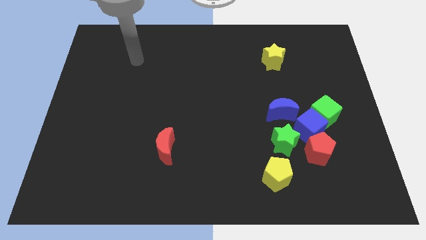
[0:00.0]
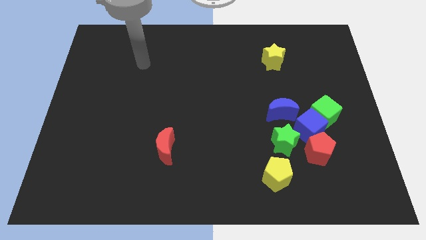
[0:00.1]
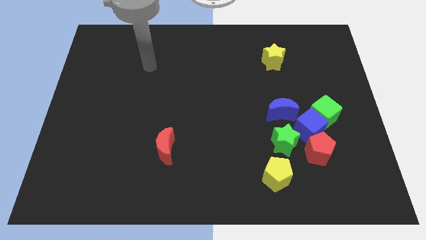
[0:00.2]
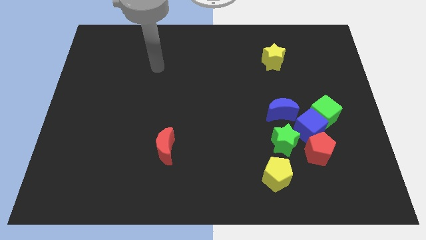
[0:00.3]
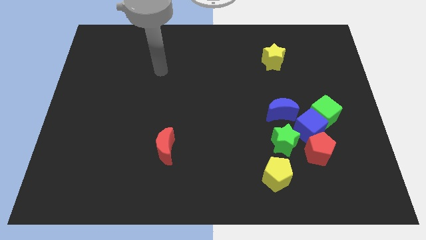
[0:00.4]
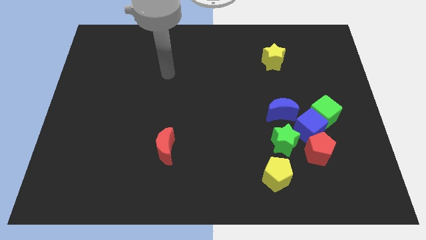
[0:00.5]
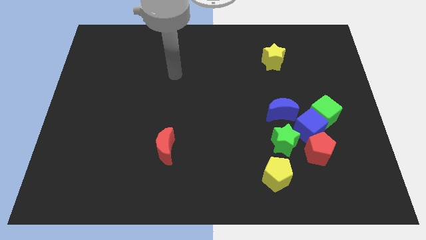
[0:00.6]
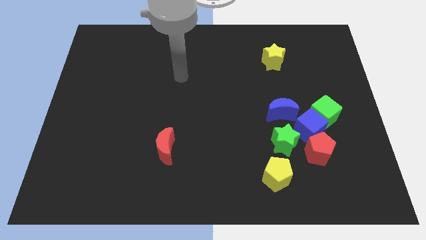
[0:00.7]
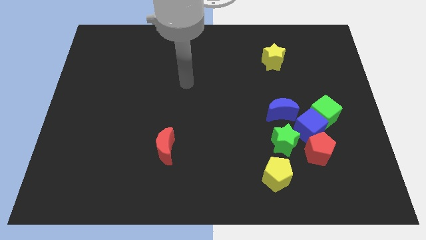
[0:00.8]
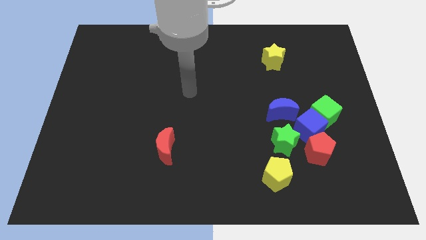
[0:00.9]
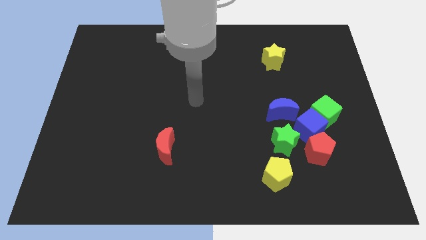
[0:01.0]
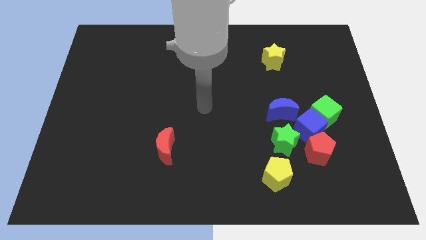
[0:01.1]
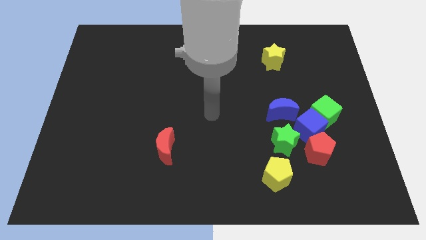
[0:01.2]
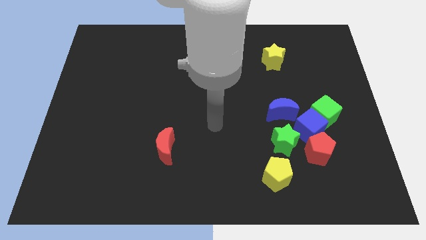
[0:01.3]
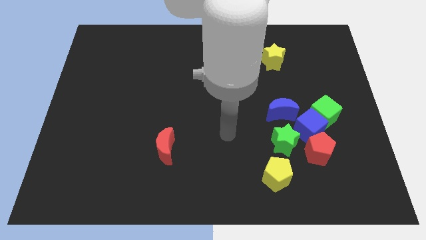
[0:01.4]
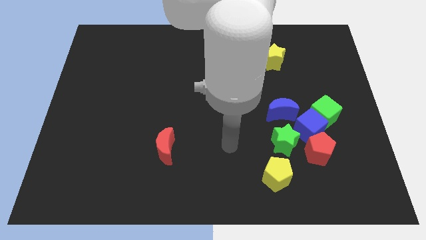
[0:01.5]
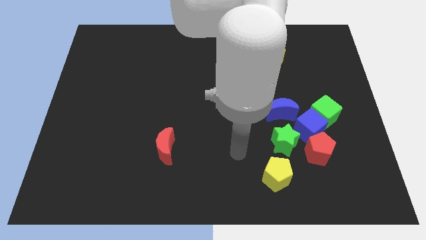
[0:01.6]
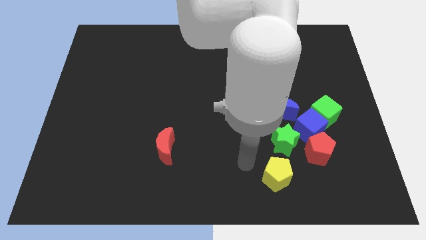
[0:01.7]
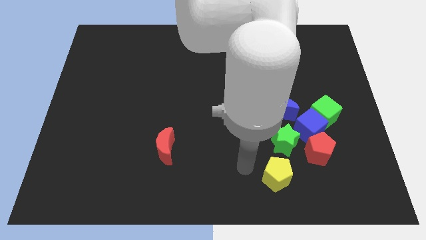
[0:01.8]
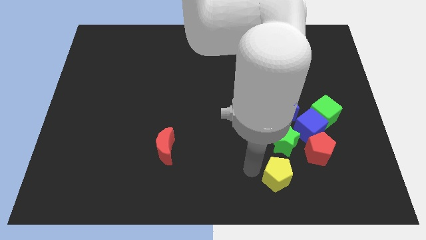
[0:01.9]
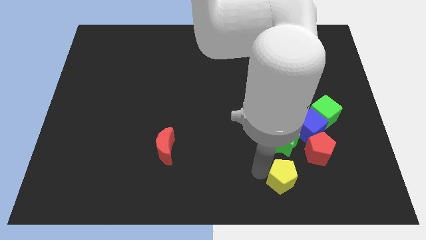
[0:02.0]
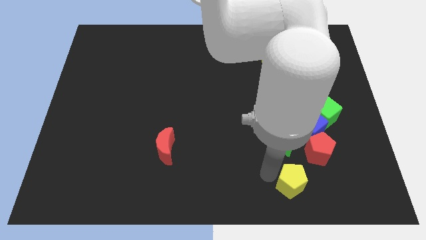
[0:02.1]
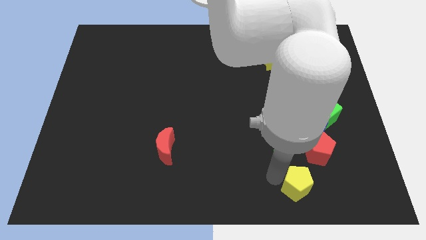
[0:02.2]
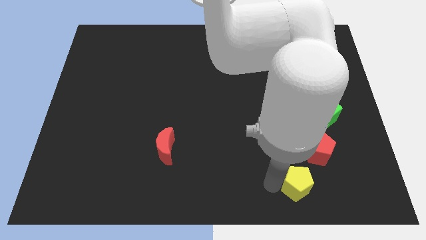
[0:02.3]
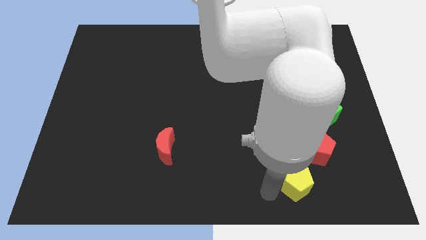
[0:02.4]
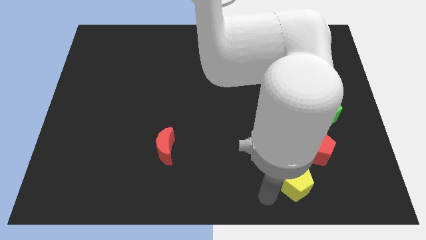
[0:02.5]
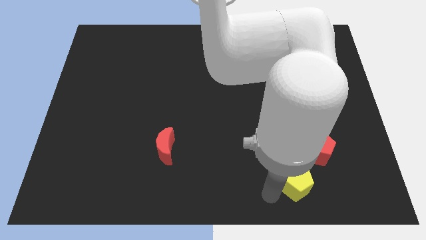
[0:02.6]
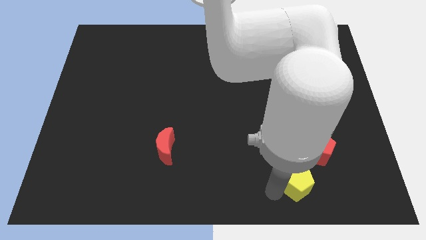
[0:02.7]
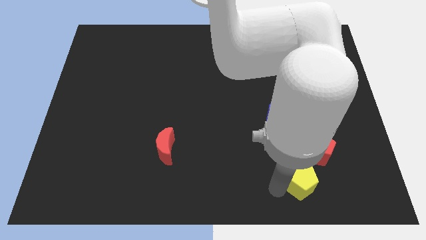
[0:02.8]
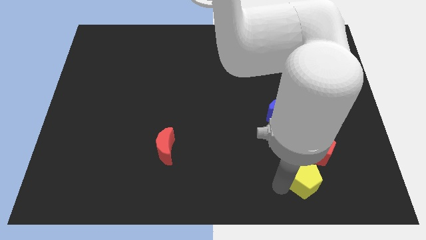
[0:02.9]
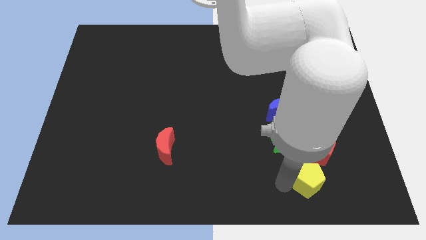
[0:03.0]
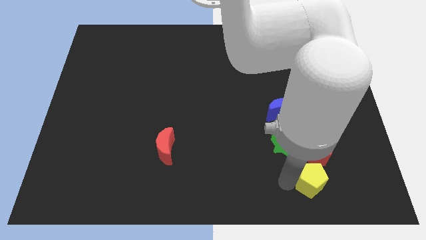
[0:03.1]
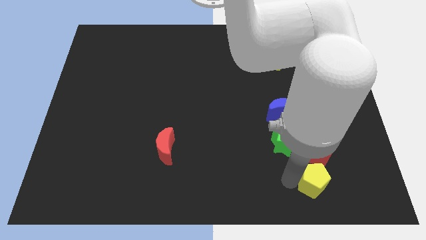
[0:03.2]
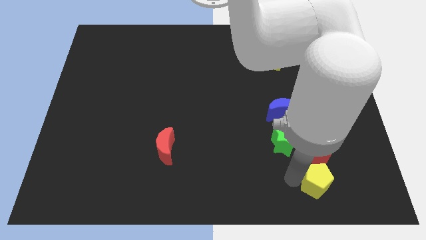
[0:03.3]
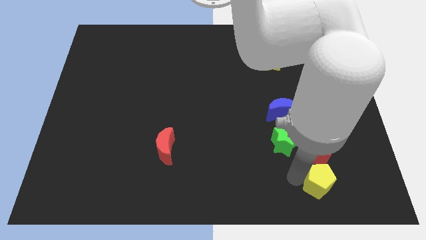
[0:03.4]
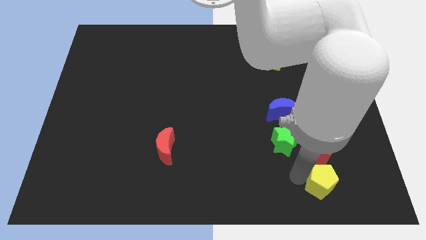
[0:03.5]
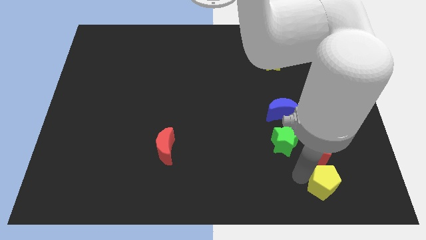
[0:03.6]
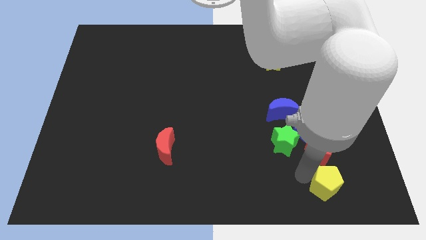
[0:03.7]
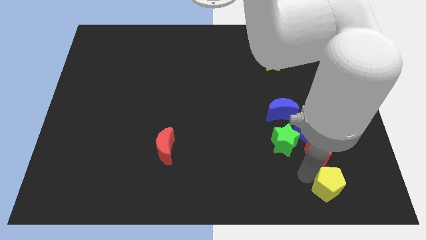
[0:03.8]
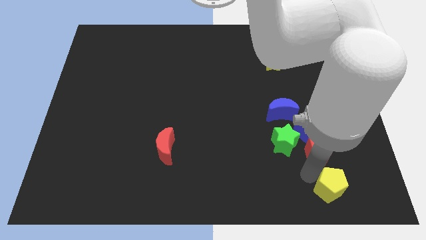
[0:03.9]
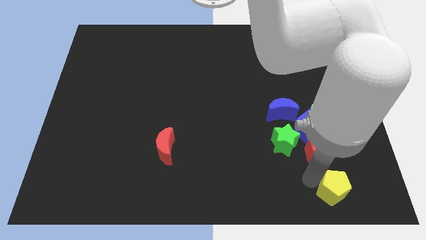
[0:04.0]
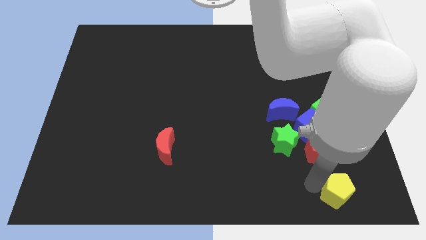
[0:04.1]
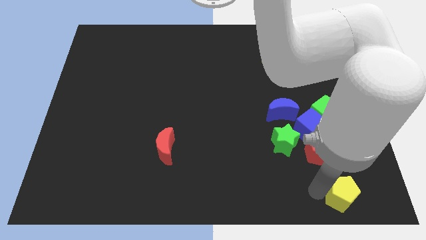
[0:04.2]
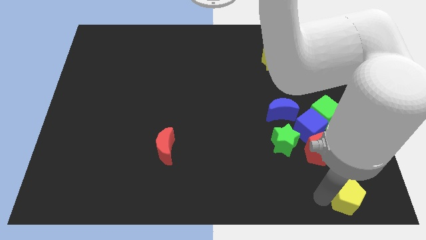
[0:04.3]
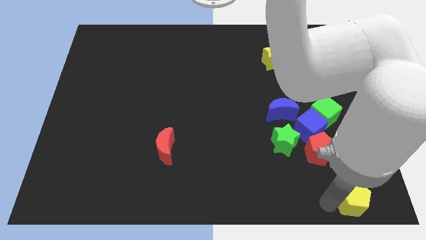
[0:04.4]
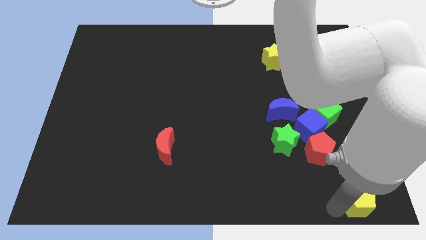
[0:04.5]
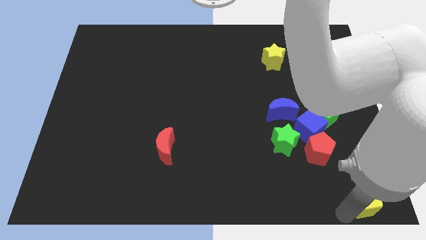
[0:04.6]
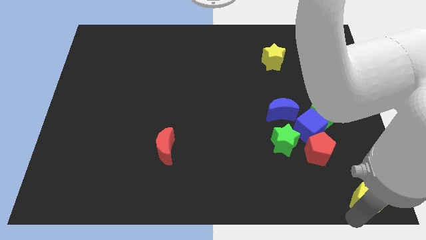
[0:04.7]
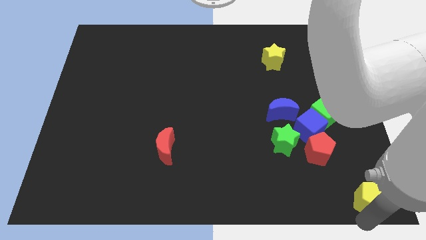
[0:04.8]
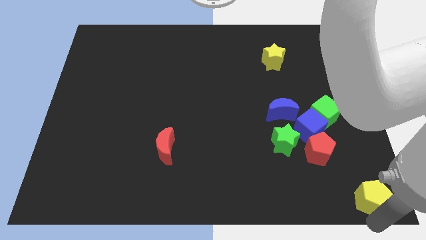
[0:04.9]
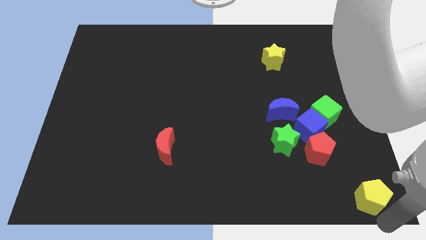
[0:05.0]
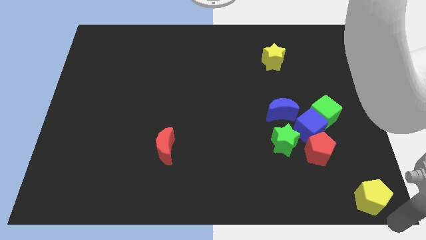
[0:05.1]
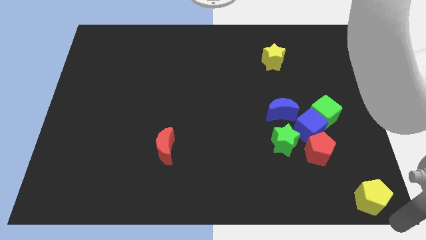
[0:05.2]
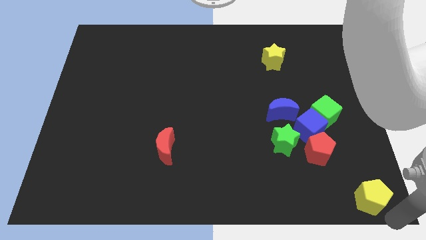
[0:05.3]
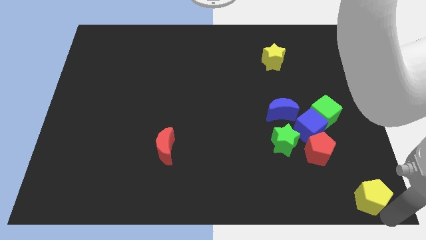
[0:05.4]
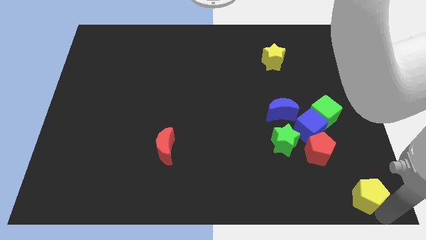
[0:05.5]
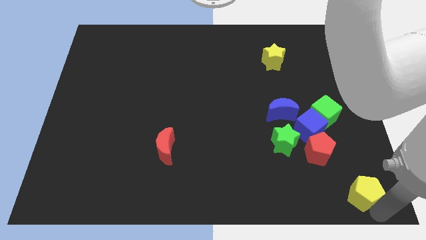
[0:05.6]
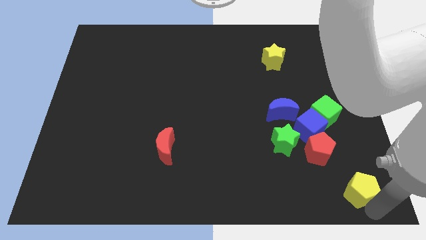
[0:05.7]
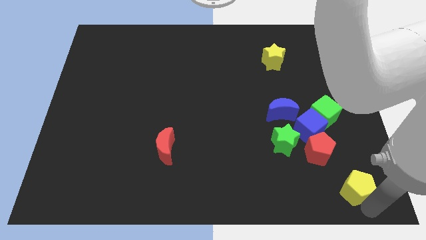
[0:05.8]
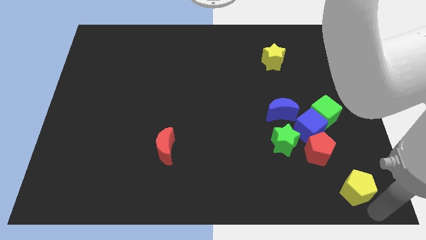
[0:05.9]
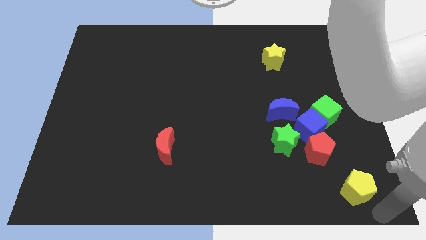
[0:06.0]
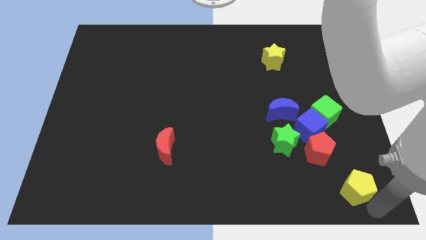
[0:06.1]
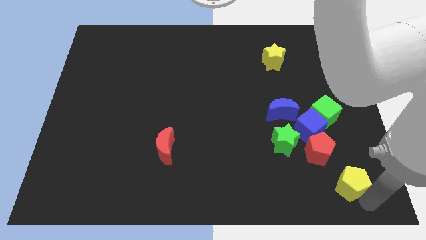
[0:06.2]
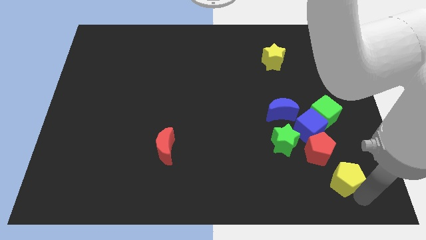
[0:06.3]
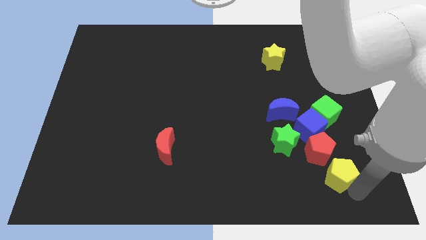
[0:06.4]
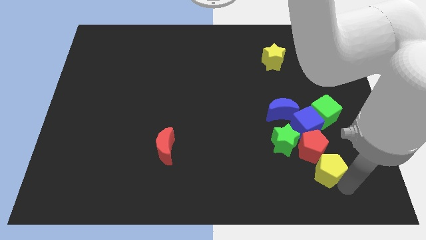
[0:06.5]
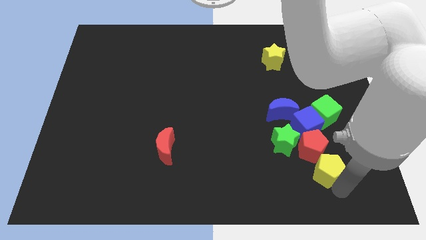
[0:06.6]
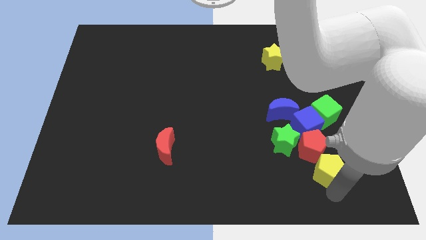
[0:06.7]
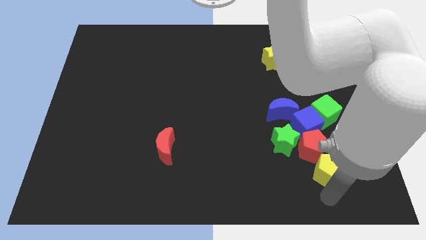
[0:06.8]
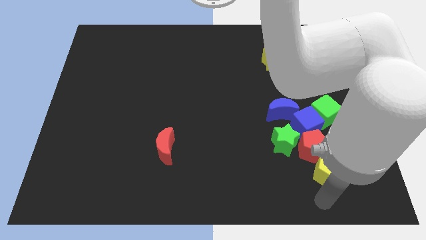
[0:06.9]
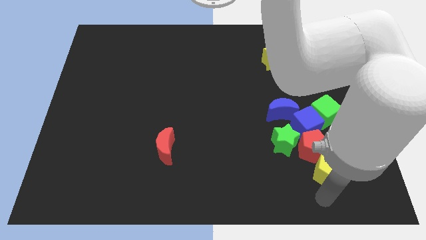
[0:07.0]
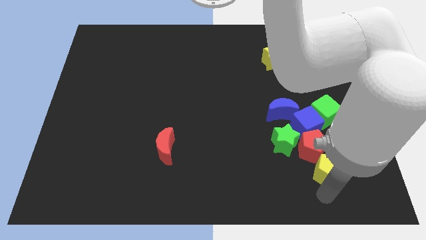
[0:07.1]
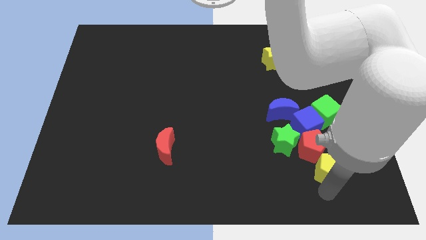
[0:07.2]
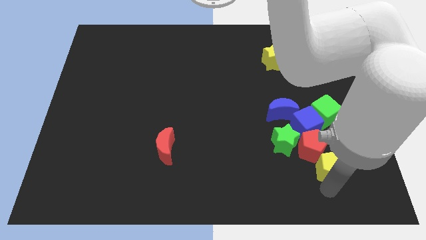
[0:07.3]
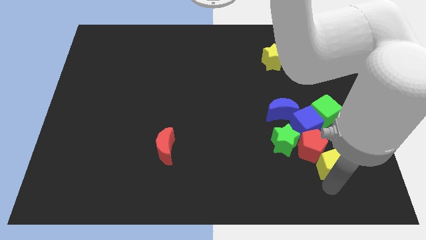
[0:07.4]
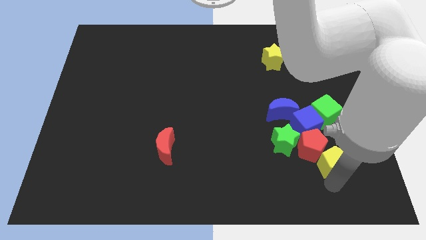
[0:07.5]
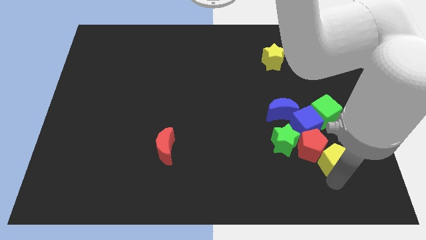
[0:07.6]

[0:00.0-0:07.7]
put the yellow pentagon just right of the green star

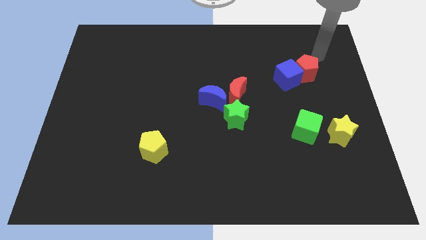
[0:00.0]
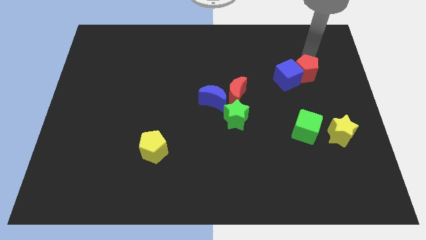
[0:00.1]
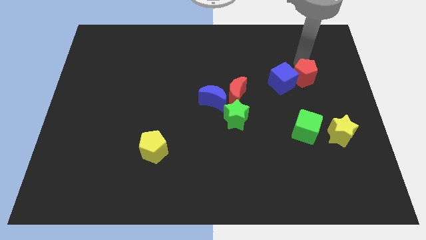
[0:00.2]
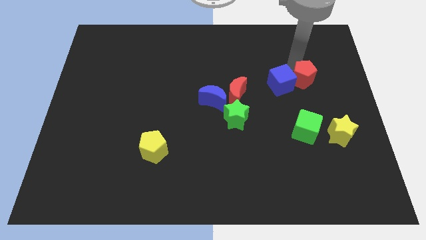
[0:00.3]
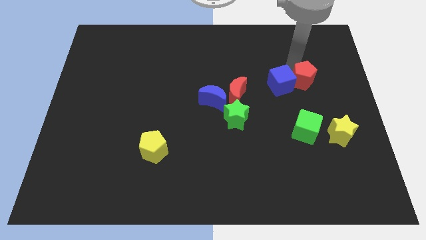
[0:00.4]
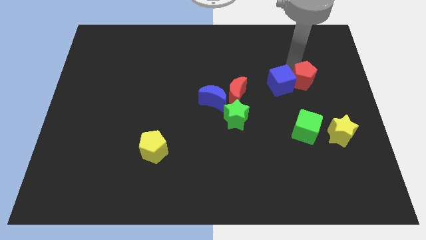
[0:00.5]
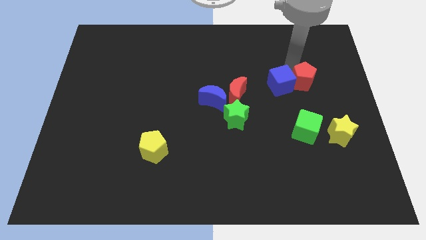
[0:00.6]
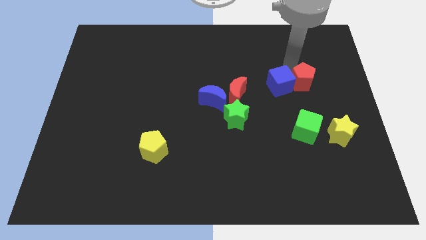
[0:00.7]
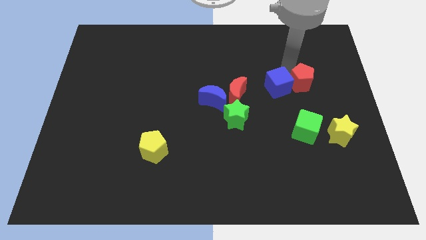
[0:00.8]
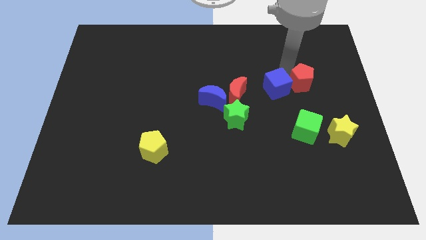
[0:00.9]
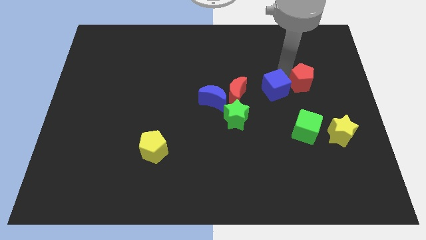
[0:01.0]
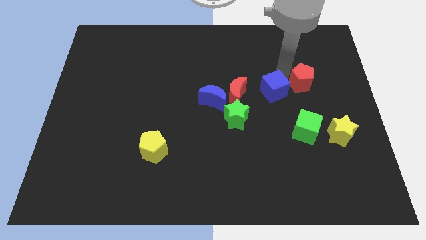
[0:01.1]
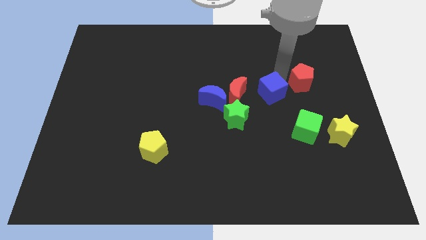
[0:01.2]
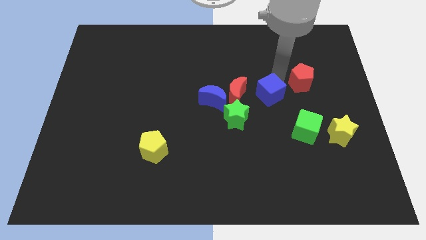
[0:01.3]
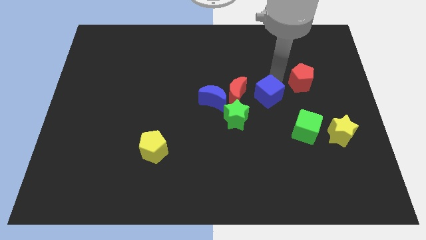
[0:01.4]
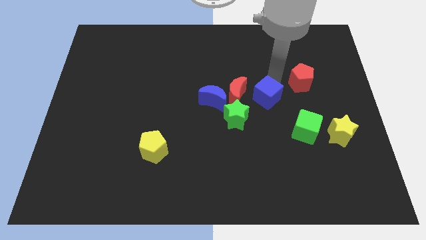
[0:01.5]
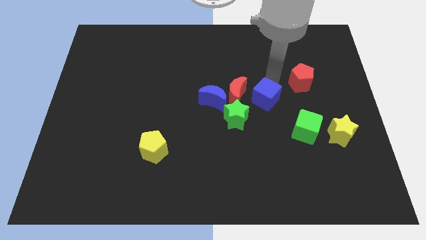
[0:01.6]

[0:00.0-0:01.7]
put the blue cube to the bottom right side of the red moon
